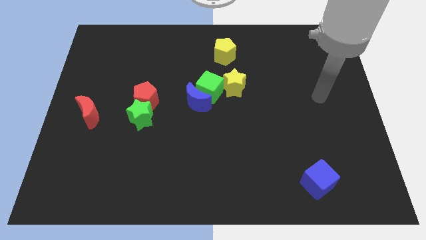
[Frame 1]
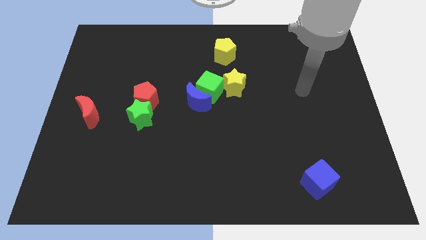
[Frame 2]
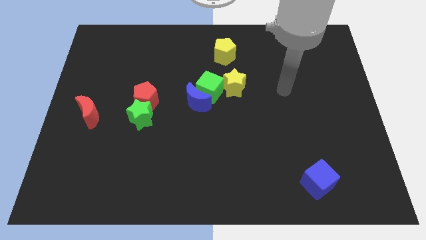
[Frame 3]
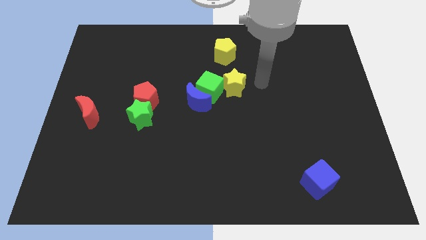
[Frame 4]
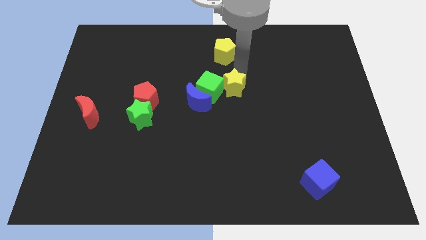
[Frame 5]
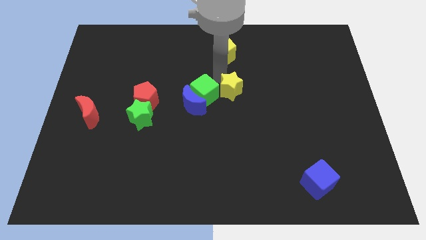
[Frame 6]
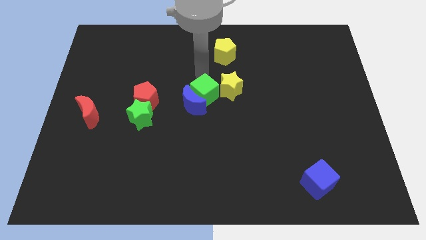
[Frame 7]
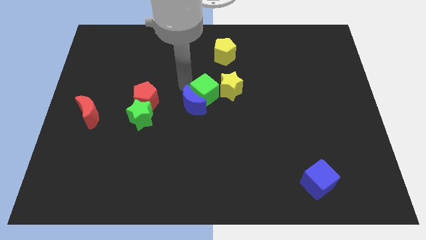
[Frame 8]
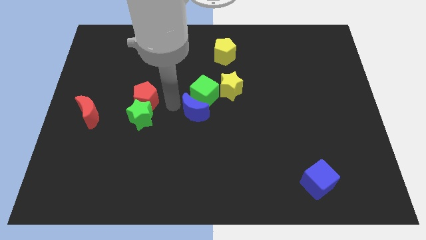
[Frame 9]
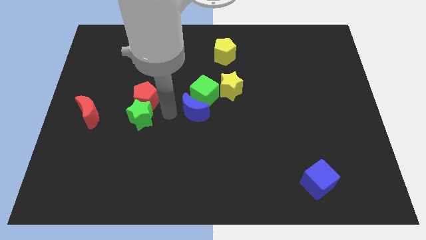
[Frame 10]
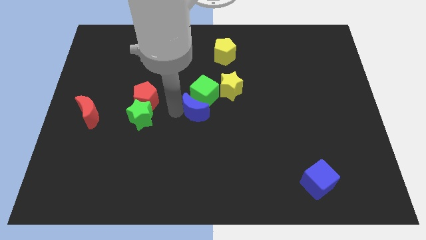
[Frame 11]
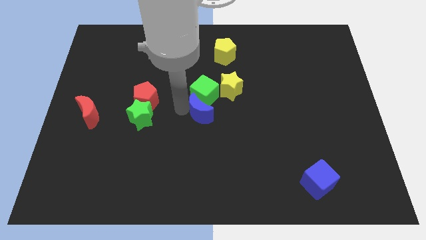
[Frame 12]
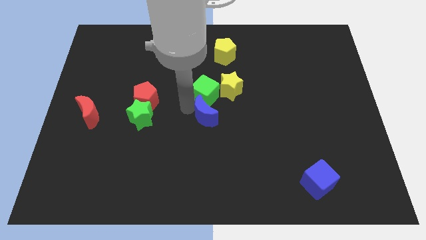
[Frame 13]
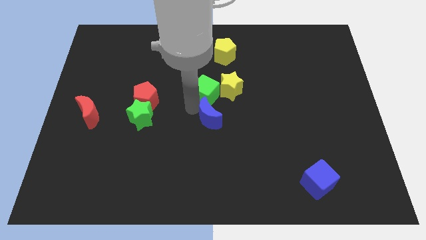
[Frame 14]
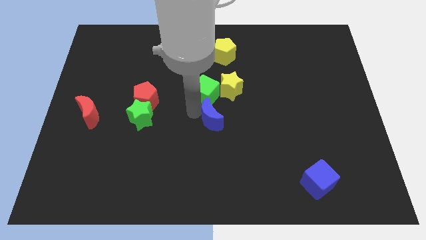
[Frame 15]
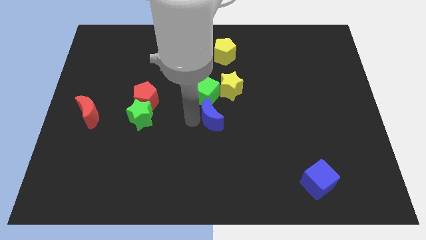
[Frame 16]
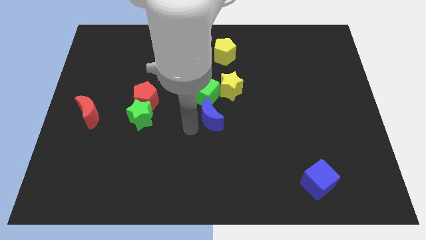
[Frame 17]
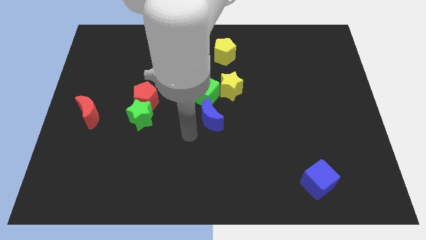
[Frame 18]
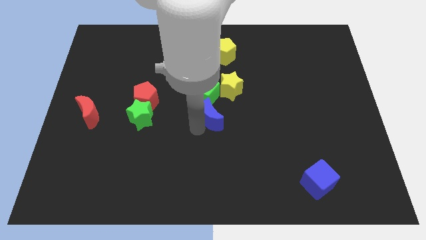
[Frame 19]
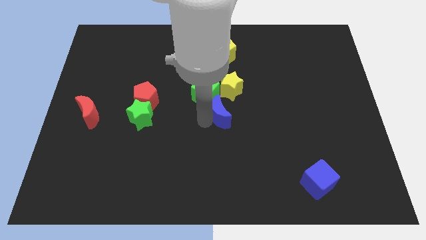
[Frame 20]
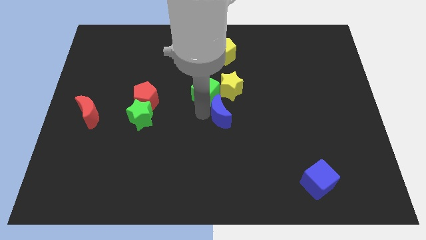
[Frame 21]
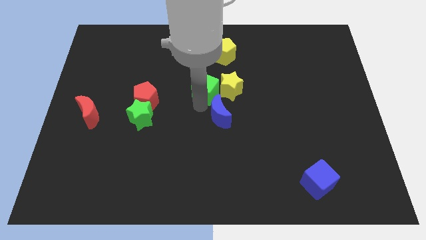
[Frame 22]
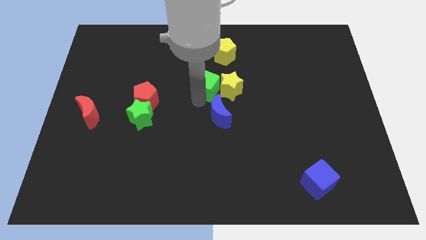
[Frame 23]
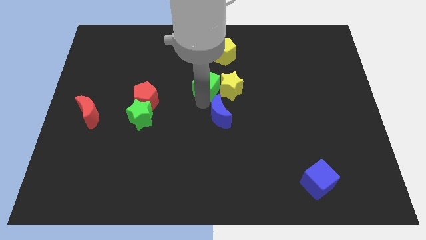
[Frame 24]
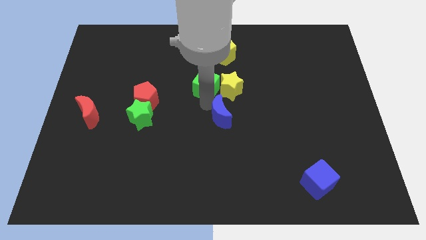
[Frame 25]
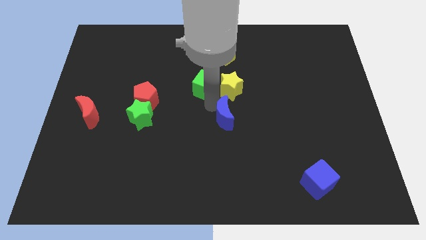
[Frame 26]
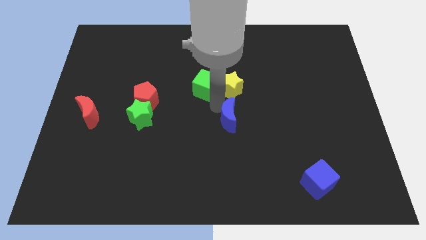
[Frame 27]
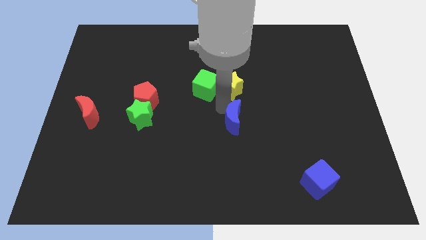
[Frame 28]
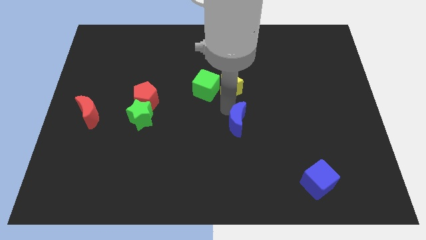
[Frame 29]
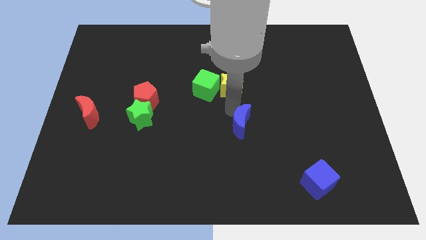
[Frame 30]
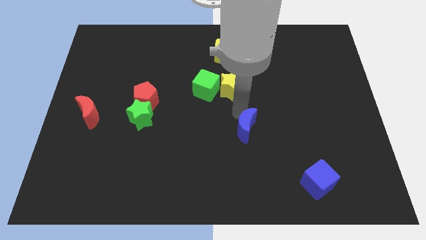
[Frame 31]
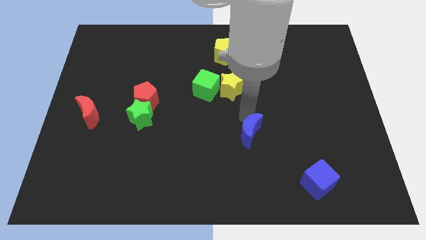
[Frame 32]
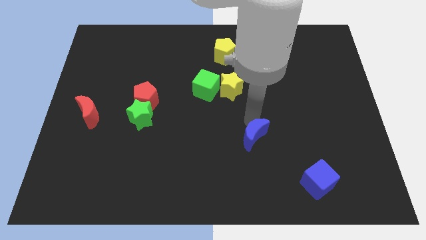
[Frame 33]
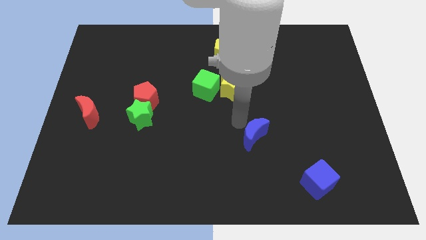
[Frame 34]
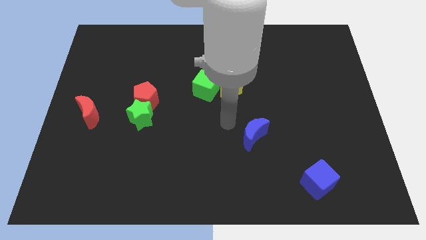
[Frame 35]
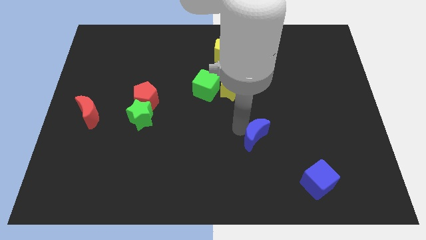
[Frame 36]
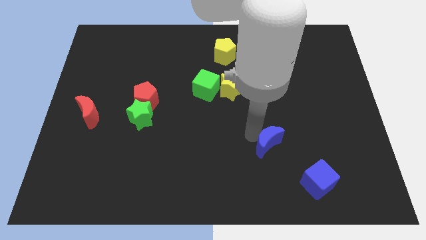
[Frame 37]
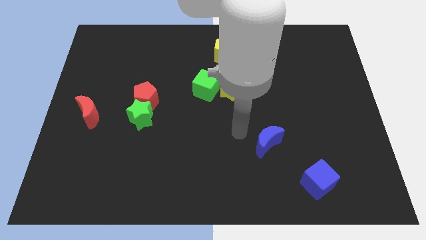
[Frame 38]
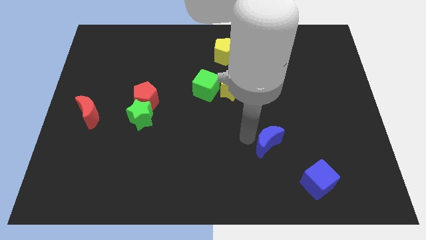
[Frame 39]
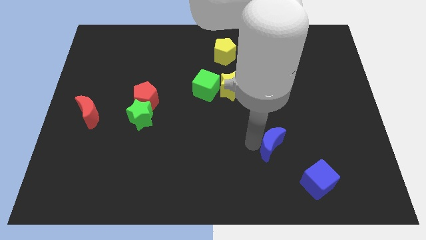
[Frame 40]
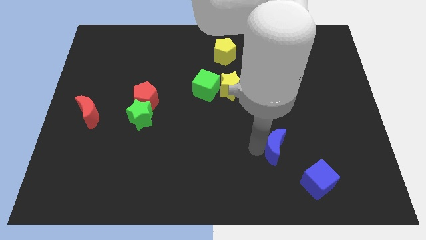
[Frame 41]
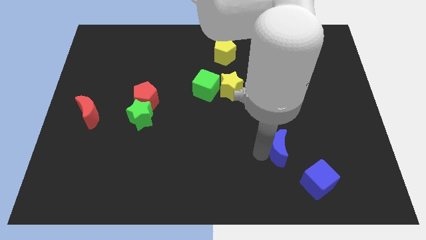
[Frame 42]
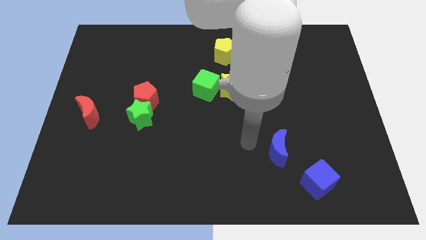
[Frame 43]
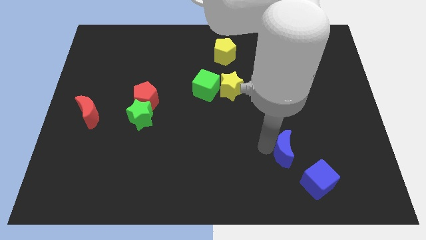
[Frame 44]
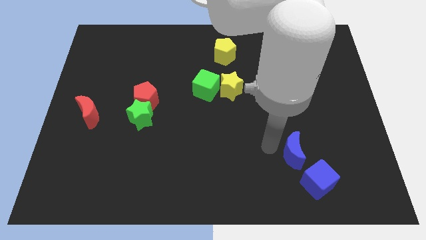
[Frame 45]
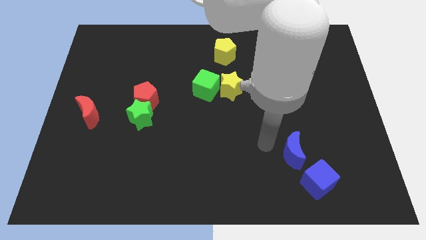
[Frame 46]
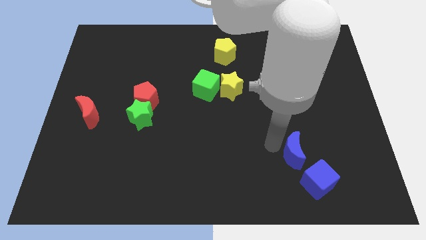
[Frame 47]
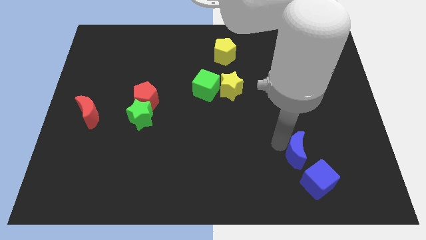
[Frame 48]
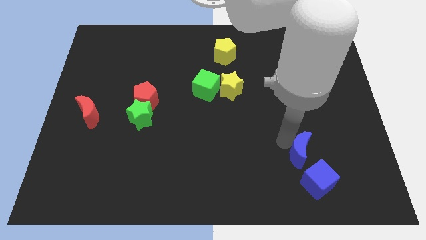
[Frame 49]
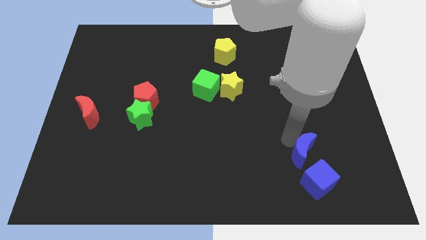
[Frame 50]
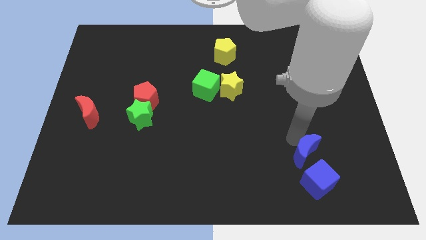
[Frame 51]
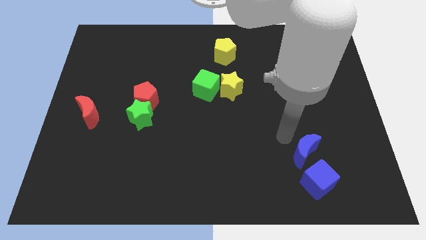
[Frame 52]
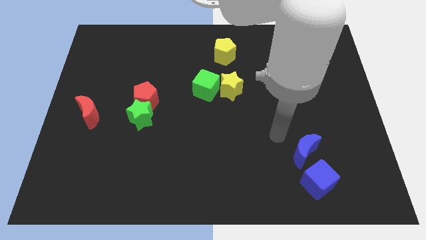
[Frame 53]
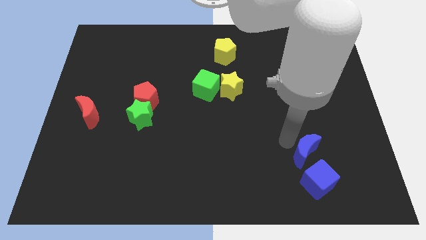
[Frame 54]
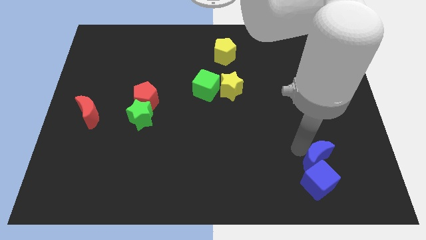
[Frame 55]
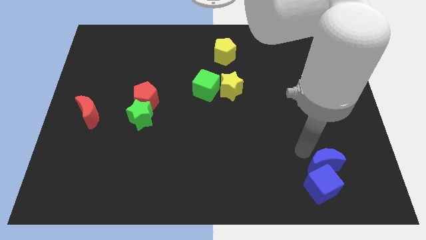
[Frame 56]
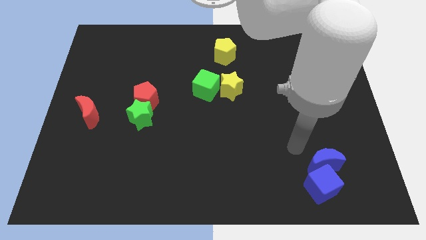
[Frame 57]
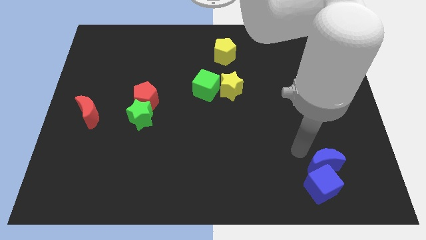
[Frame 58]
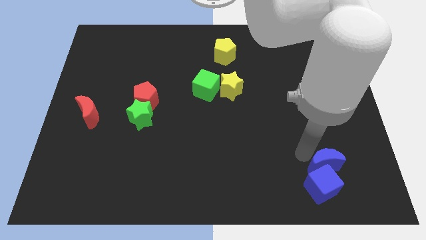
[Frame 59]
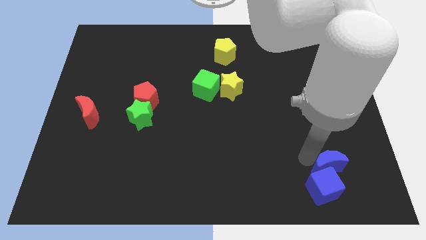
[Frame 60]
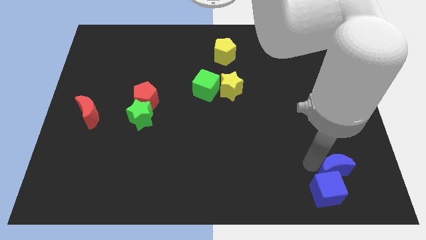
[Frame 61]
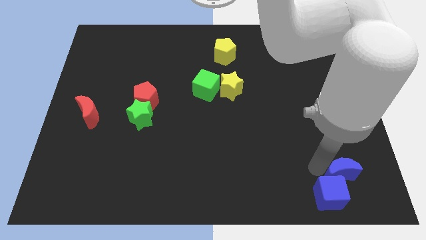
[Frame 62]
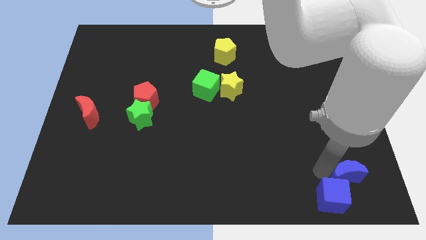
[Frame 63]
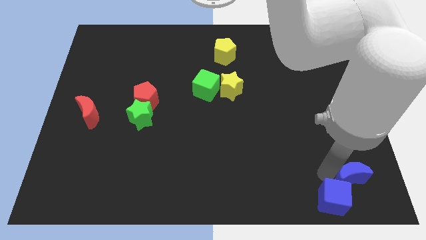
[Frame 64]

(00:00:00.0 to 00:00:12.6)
push the blue moon to the bottom right of the board
